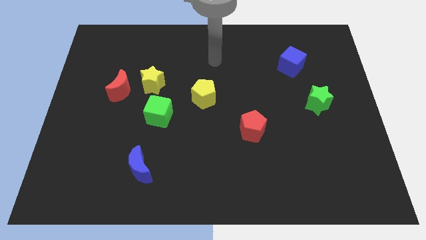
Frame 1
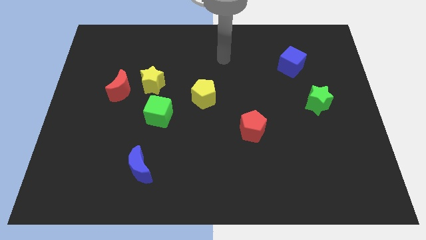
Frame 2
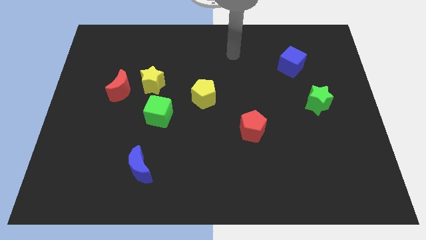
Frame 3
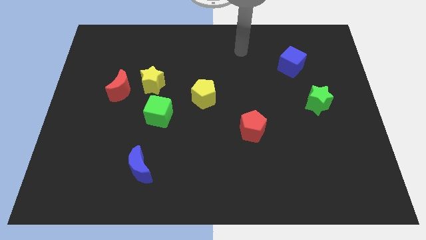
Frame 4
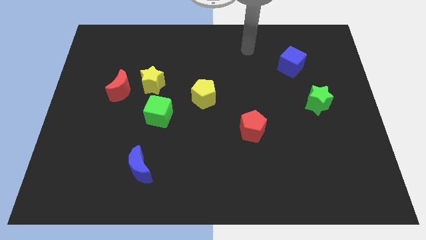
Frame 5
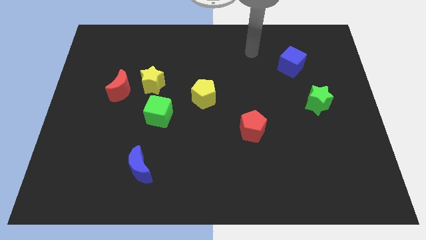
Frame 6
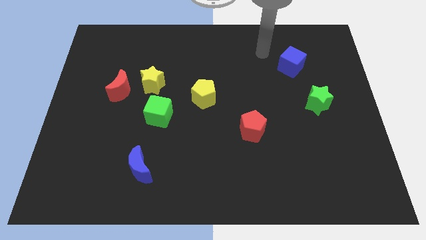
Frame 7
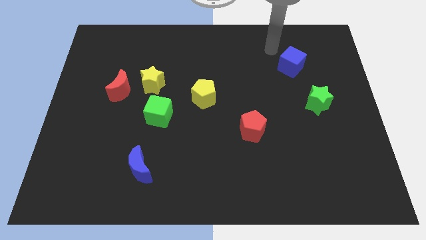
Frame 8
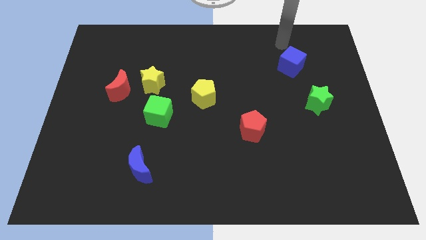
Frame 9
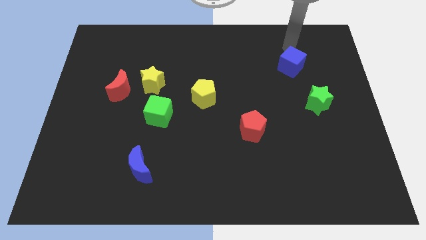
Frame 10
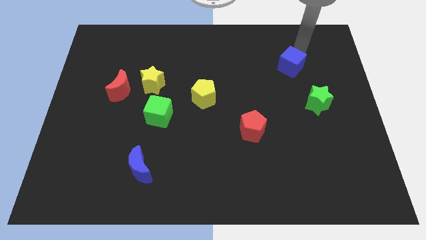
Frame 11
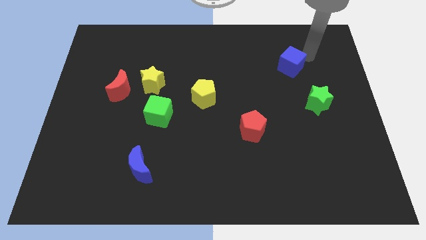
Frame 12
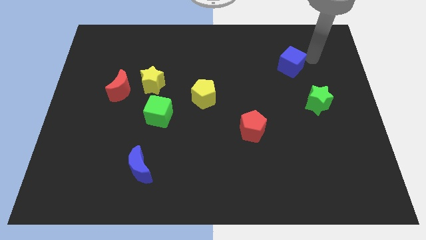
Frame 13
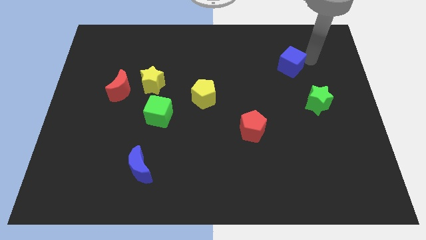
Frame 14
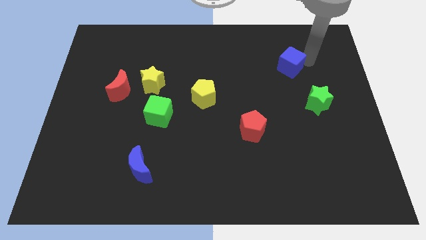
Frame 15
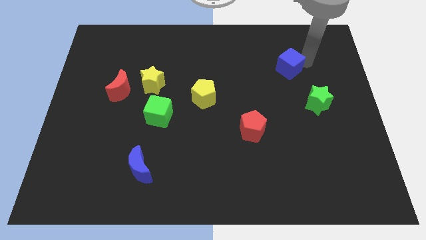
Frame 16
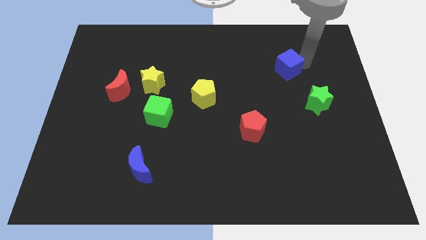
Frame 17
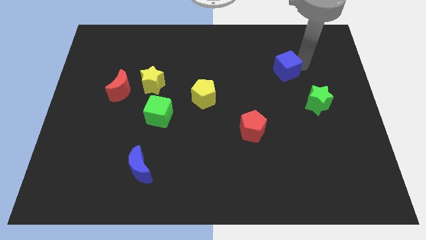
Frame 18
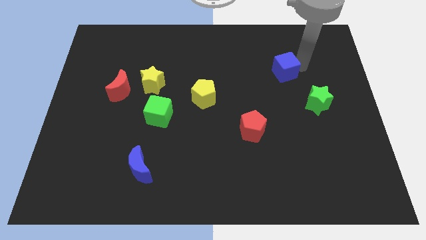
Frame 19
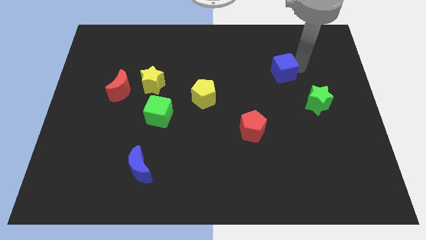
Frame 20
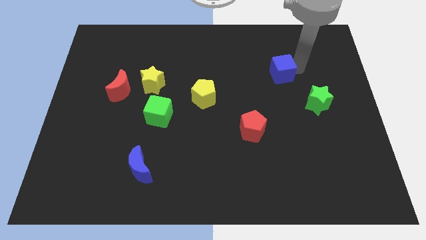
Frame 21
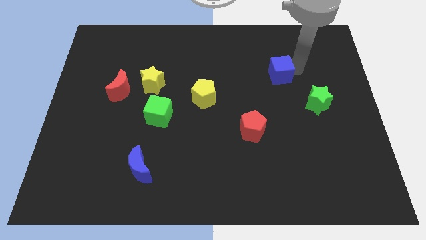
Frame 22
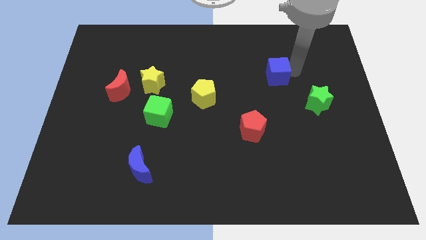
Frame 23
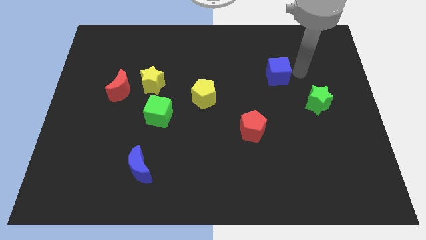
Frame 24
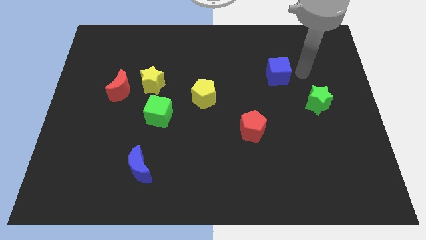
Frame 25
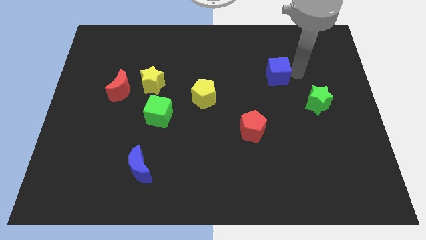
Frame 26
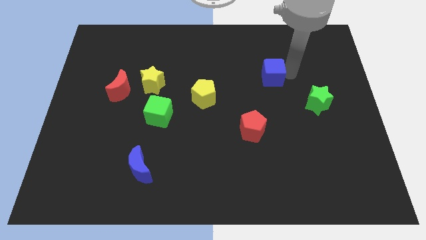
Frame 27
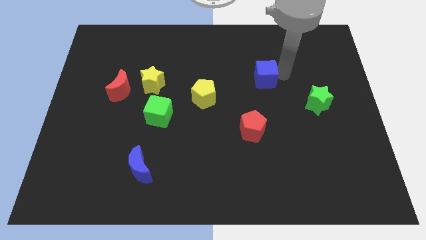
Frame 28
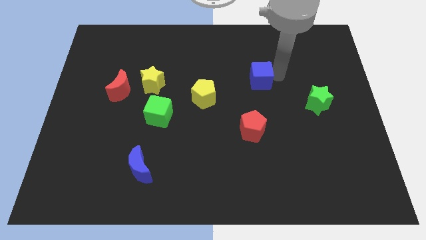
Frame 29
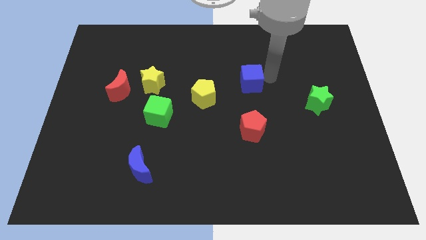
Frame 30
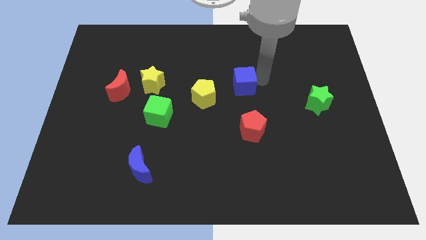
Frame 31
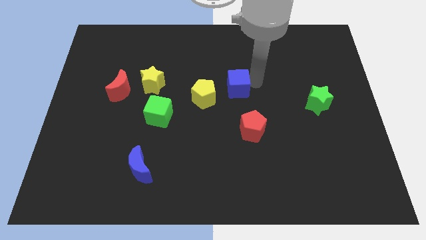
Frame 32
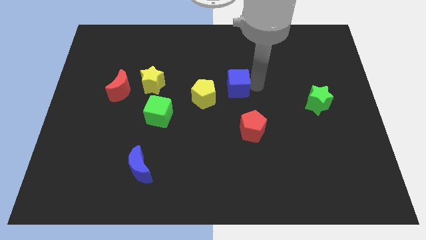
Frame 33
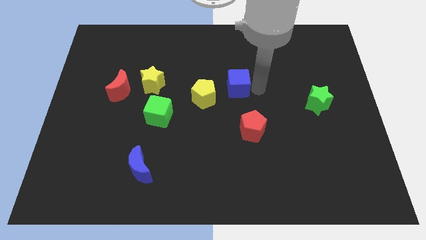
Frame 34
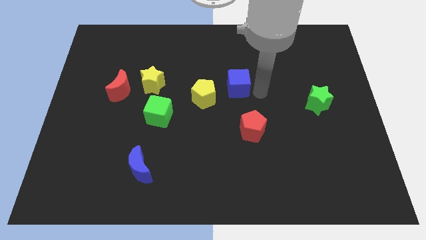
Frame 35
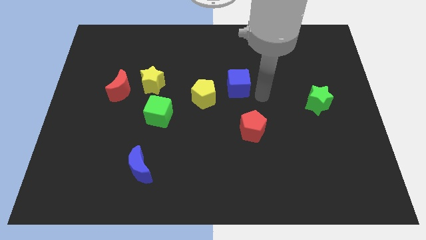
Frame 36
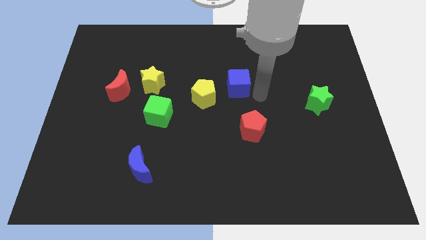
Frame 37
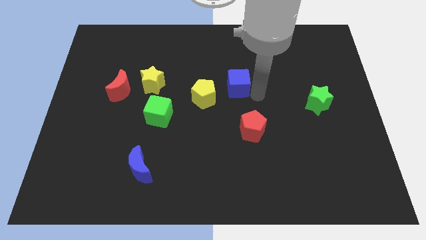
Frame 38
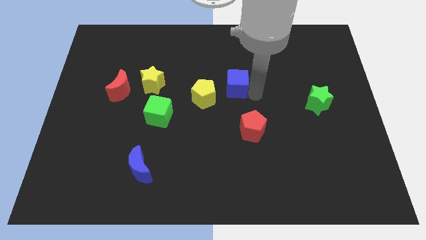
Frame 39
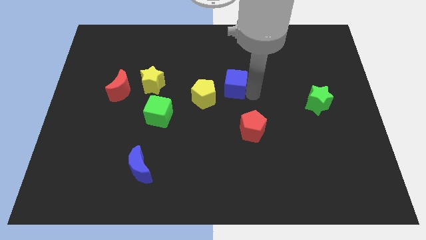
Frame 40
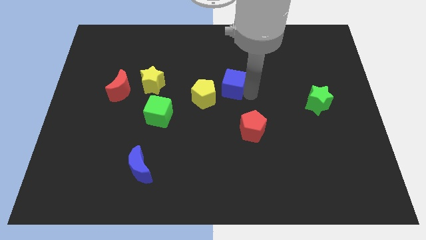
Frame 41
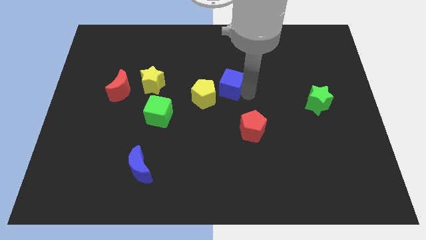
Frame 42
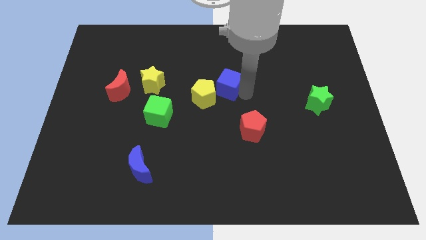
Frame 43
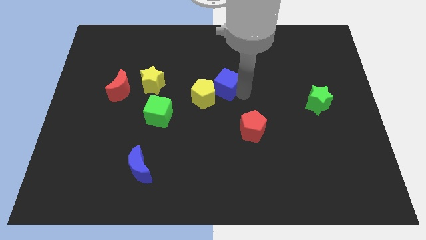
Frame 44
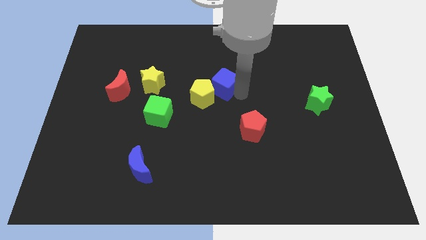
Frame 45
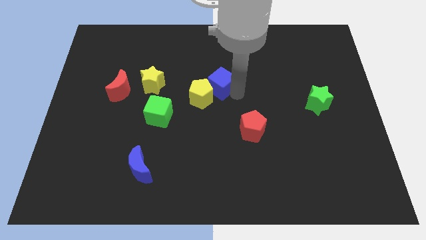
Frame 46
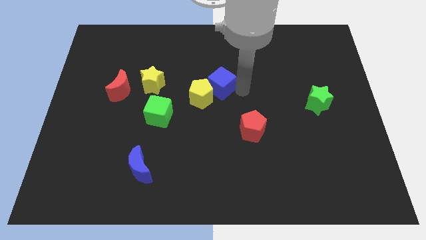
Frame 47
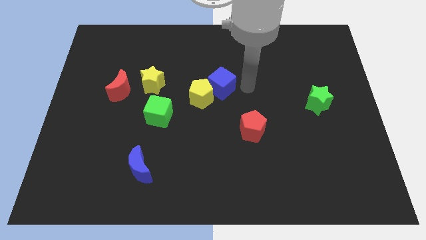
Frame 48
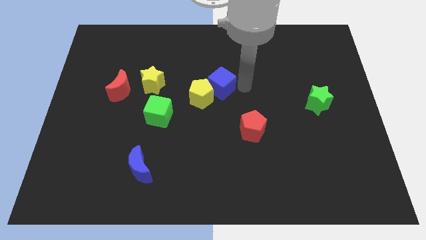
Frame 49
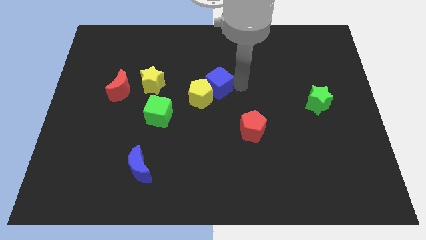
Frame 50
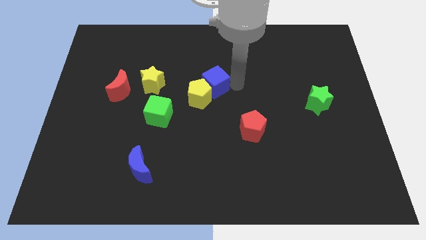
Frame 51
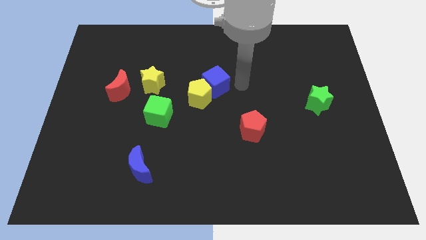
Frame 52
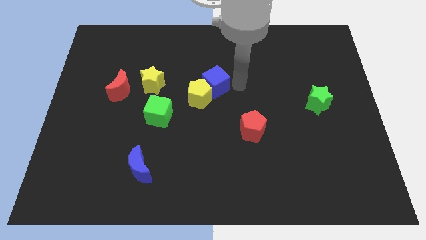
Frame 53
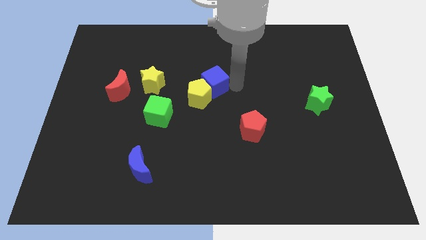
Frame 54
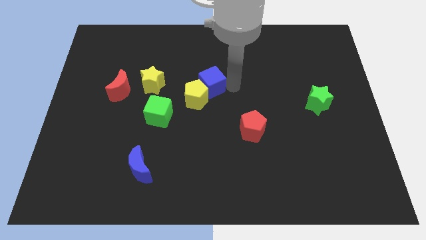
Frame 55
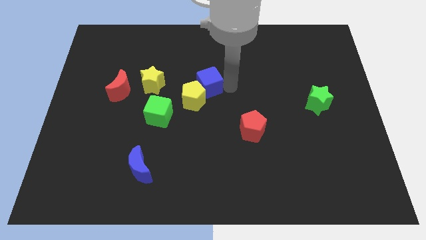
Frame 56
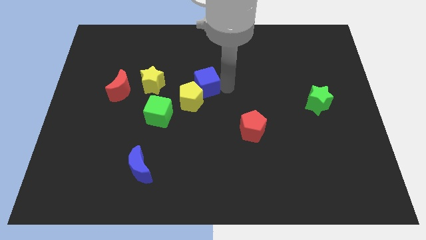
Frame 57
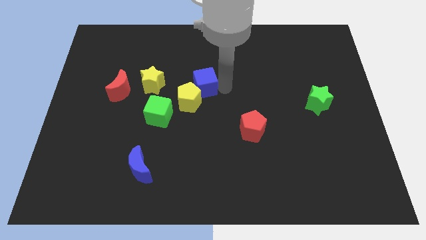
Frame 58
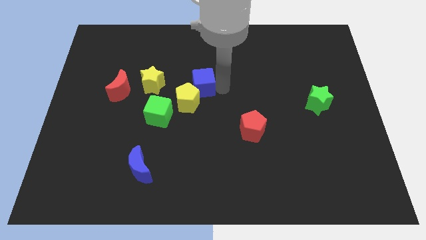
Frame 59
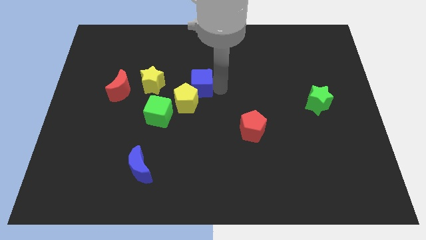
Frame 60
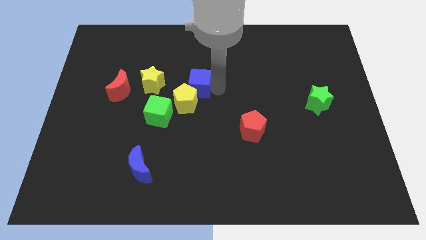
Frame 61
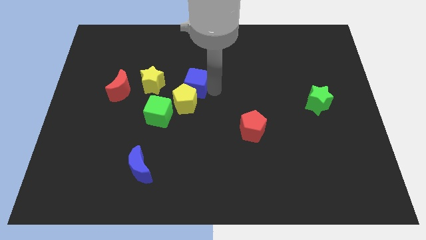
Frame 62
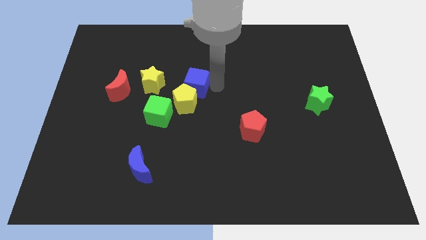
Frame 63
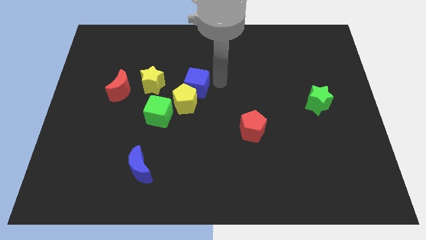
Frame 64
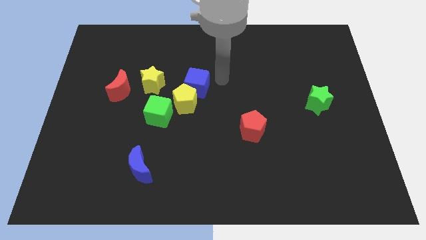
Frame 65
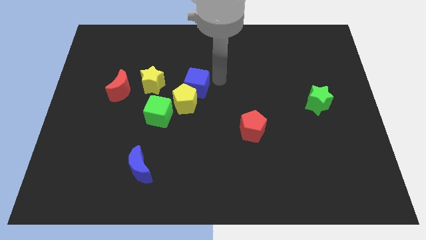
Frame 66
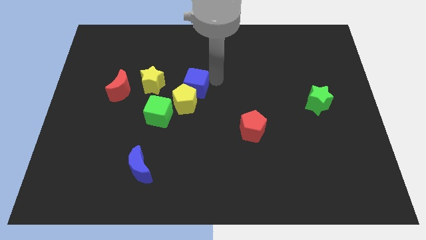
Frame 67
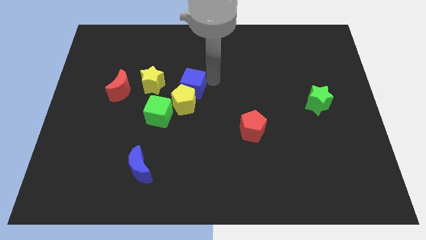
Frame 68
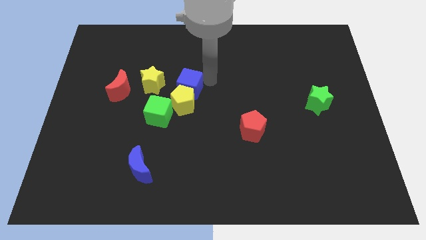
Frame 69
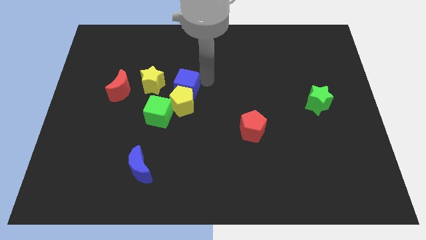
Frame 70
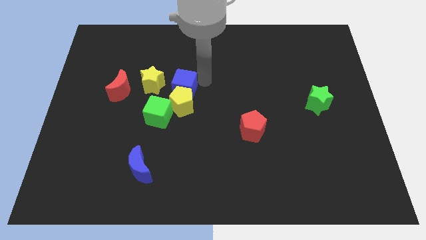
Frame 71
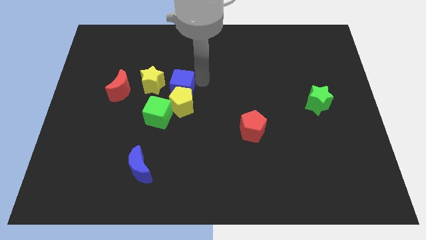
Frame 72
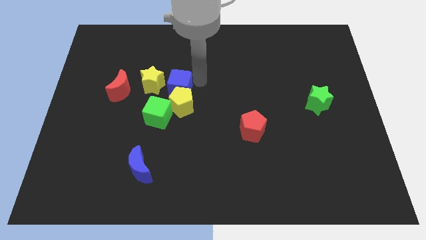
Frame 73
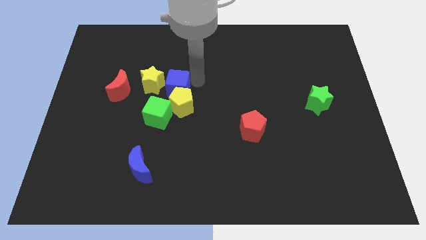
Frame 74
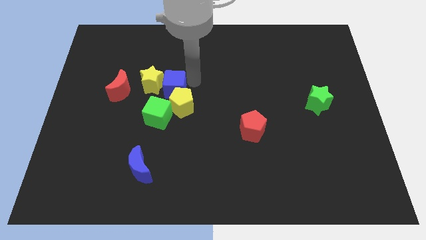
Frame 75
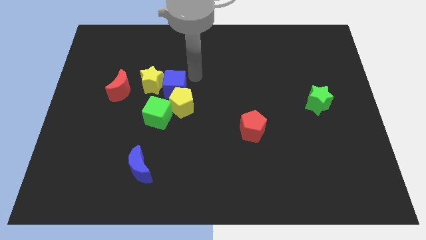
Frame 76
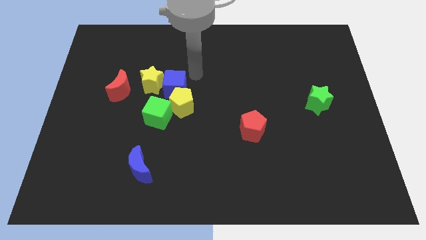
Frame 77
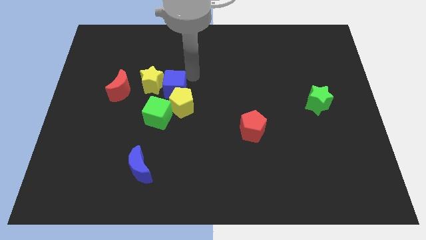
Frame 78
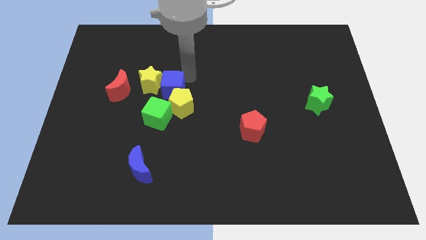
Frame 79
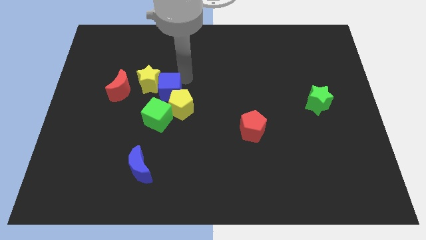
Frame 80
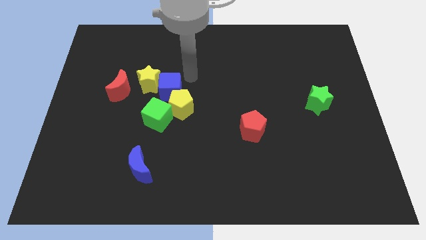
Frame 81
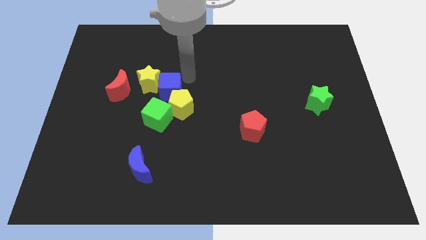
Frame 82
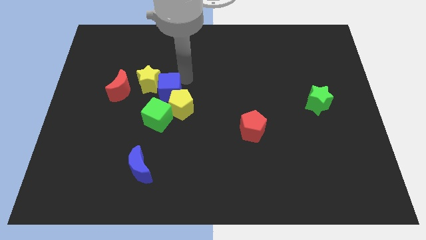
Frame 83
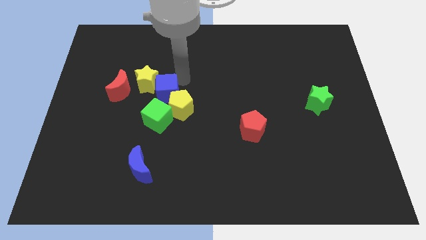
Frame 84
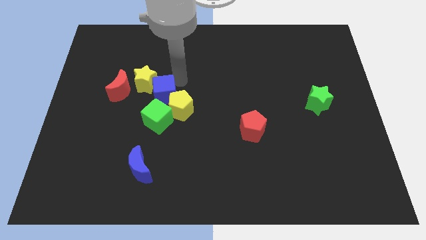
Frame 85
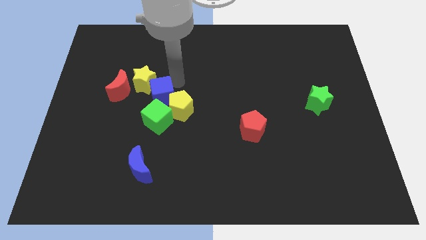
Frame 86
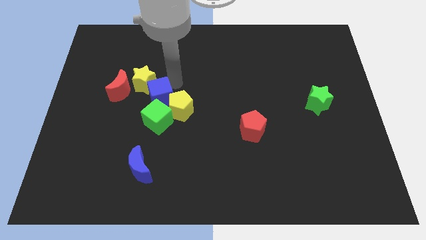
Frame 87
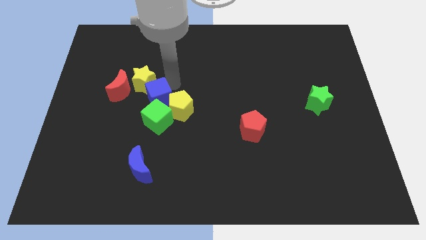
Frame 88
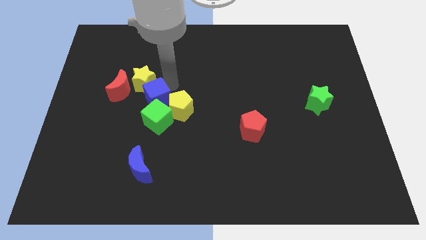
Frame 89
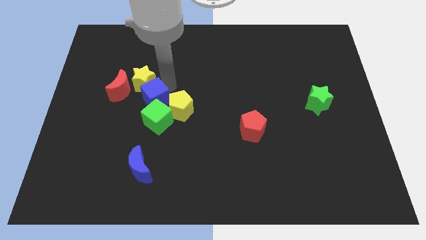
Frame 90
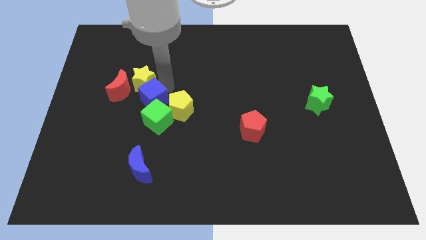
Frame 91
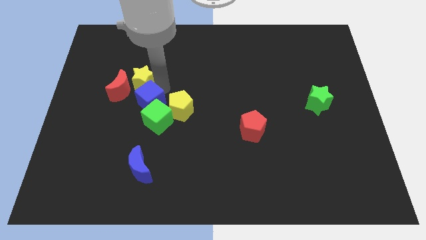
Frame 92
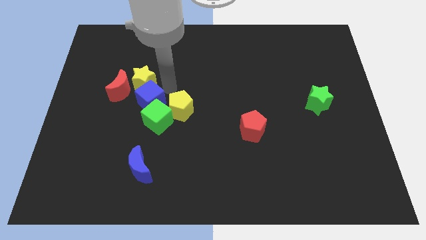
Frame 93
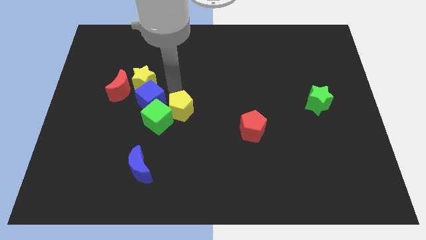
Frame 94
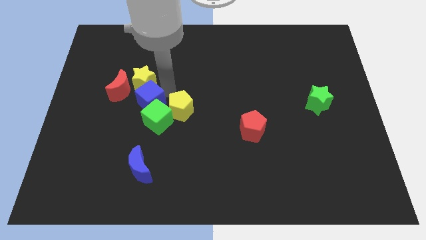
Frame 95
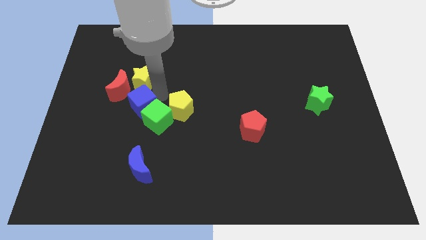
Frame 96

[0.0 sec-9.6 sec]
move the blue cube to the left of the green cube
